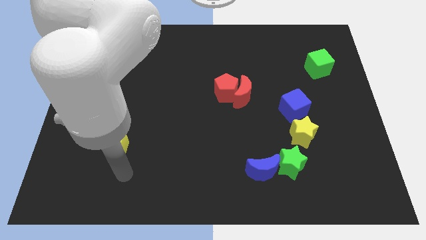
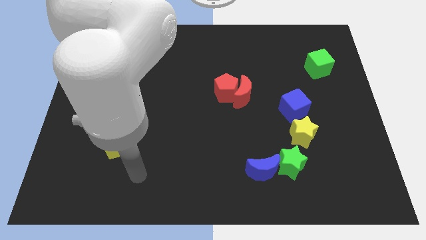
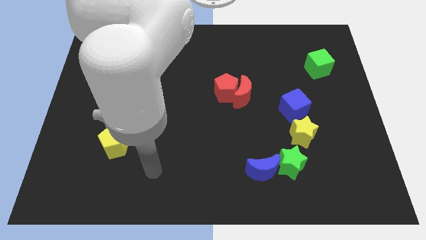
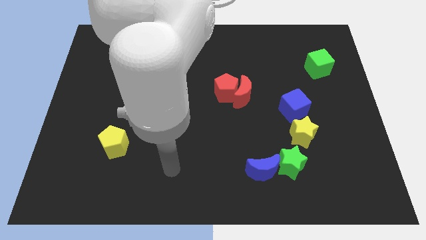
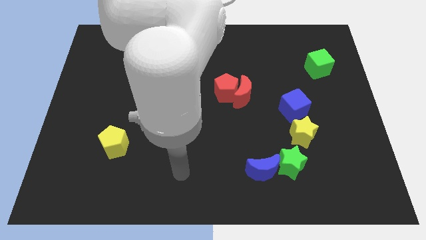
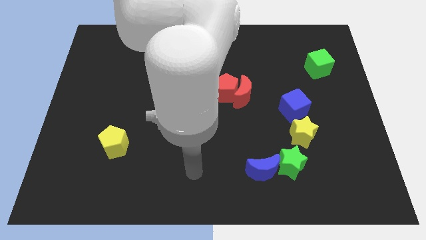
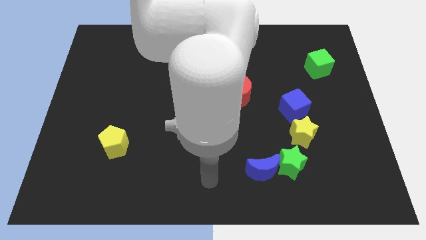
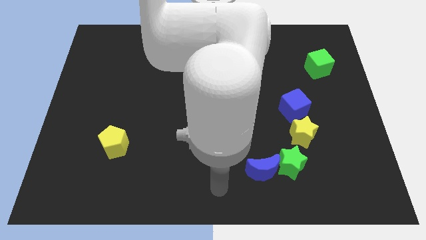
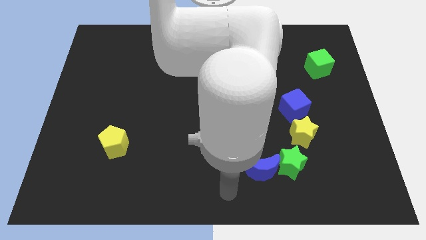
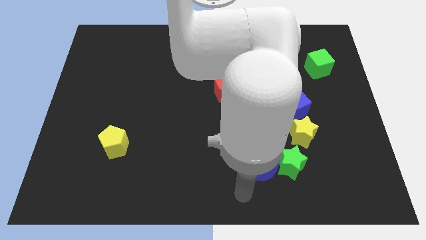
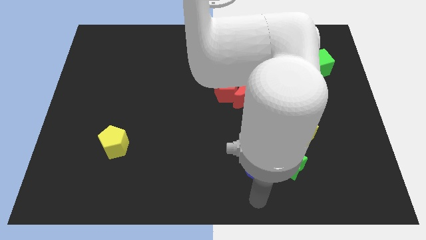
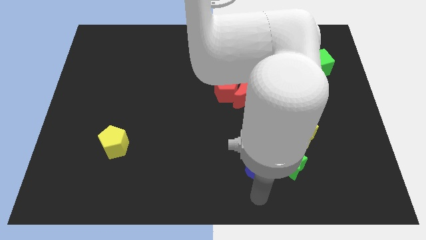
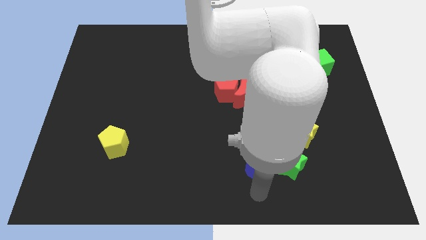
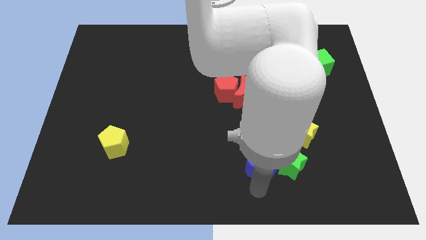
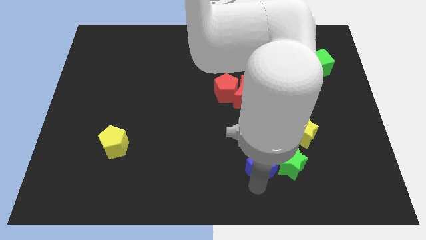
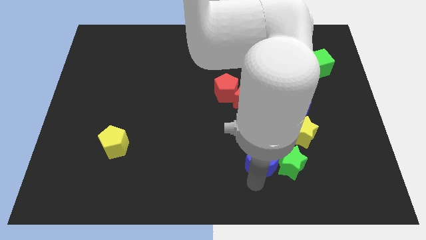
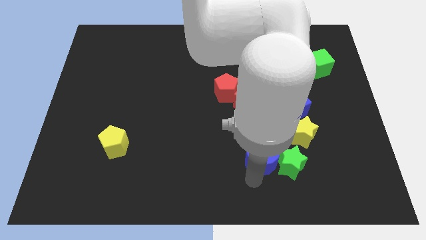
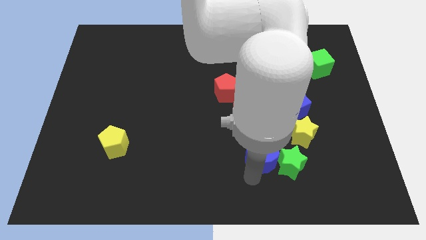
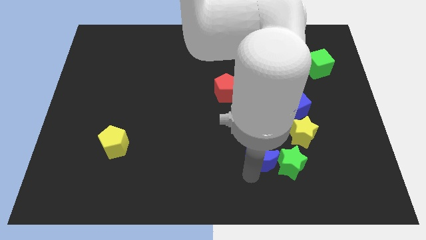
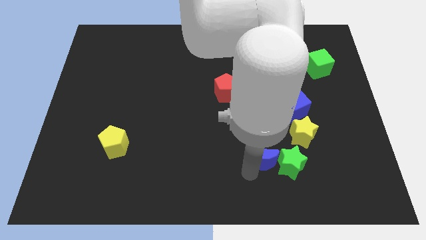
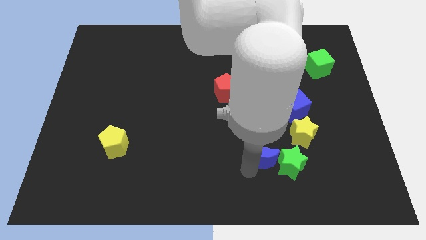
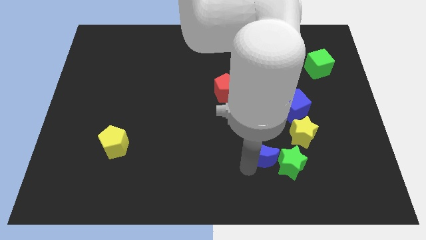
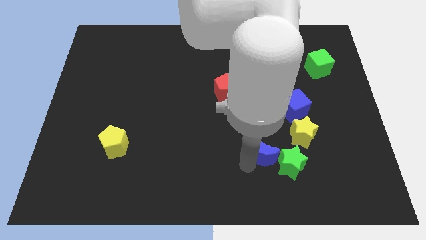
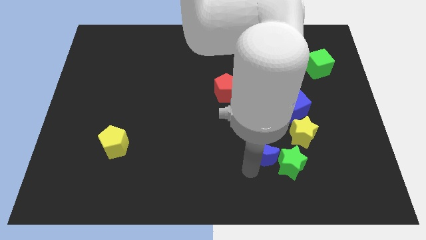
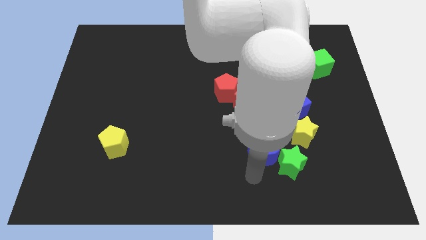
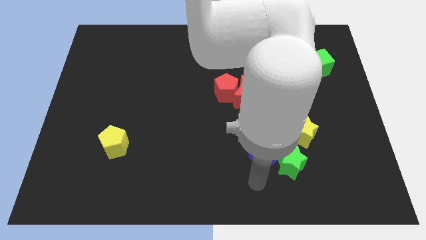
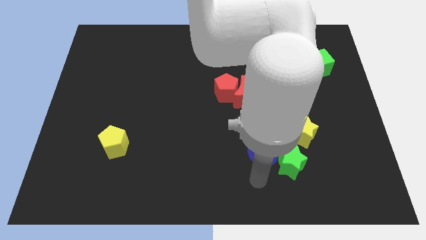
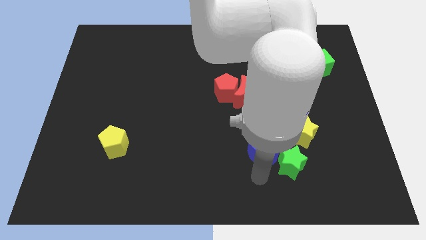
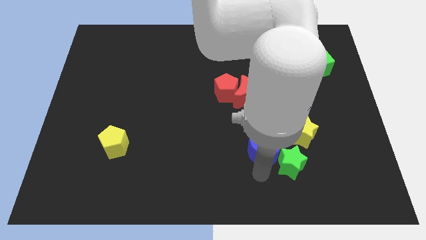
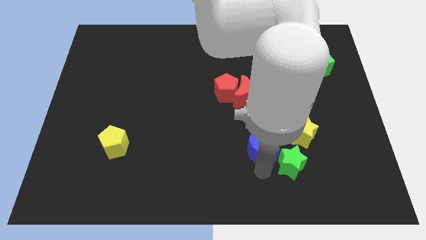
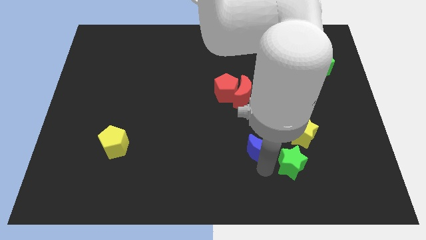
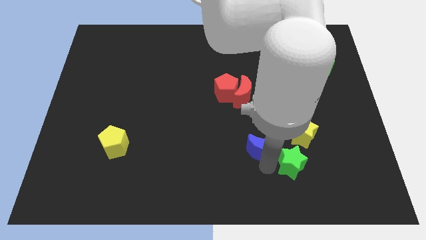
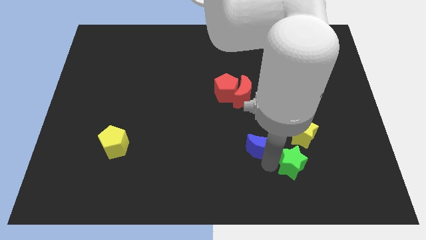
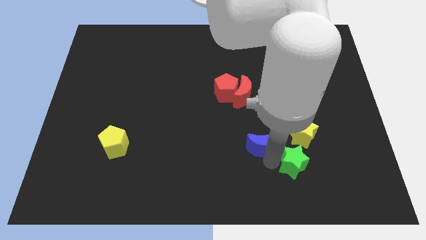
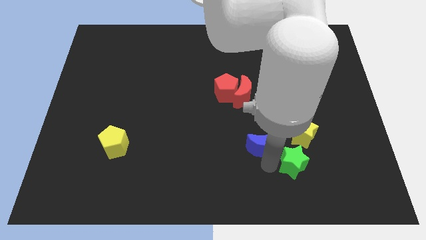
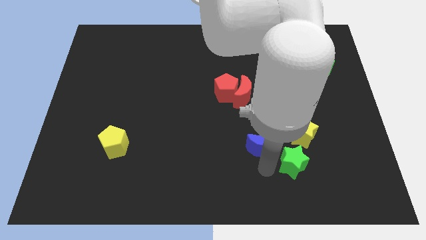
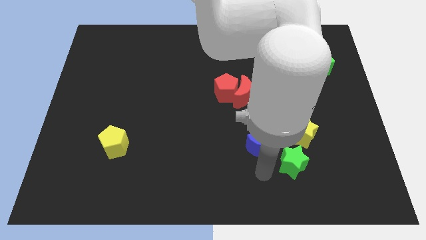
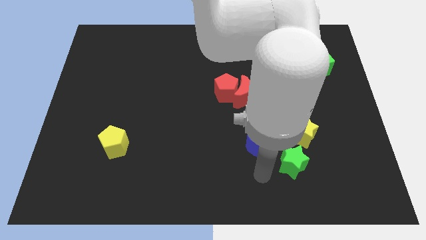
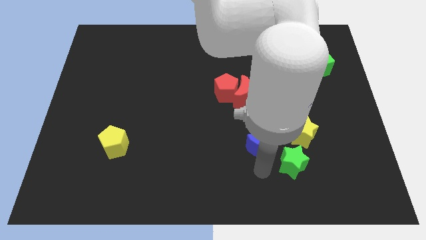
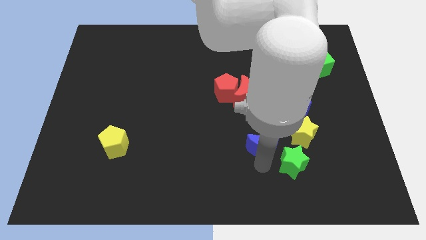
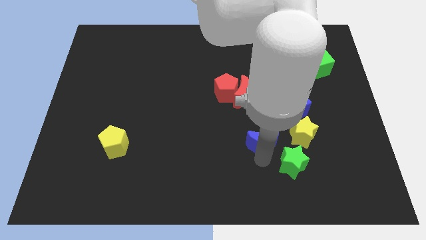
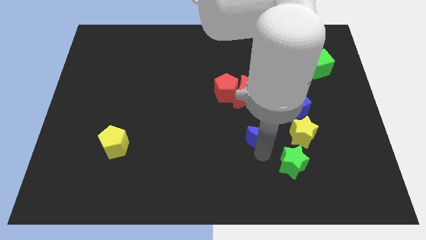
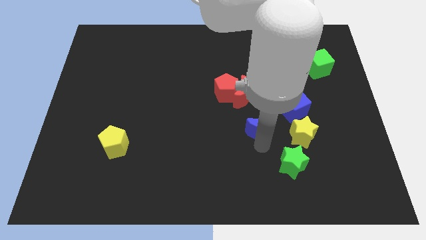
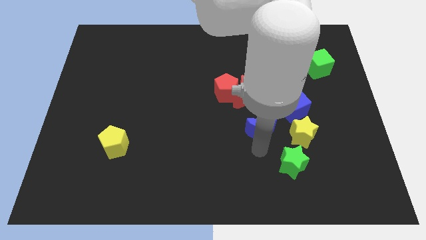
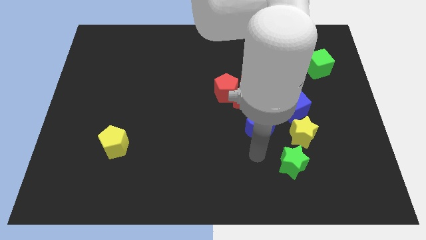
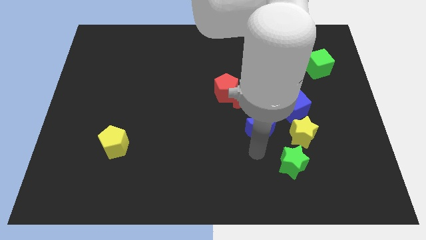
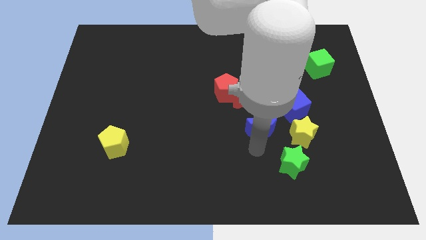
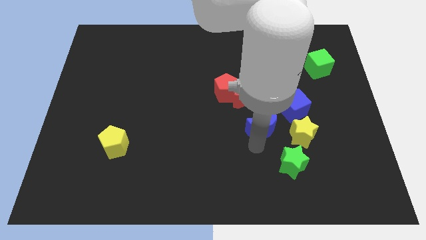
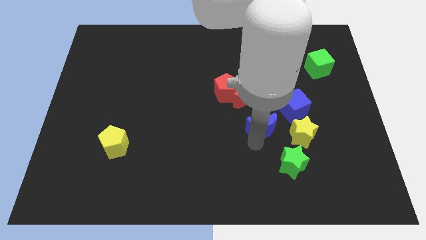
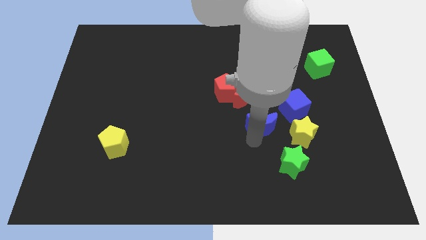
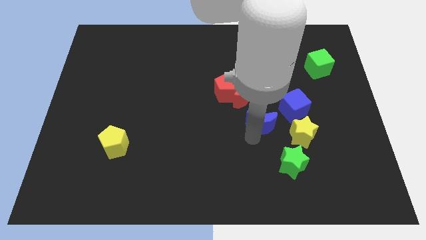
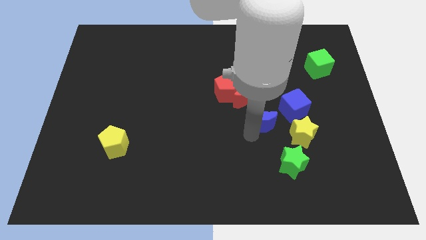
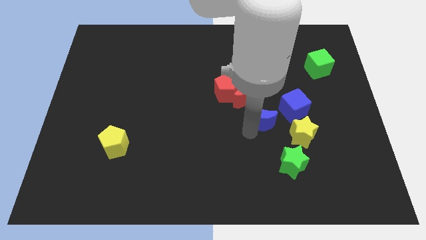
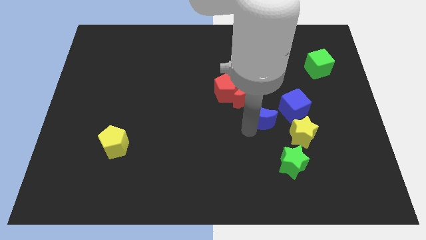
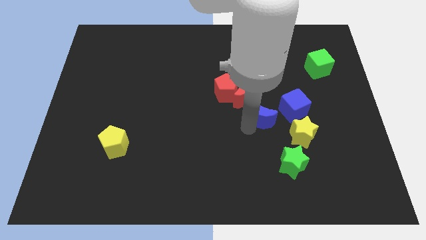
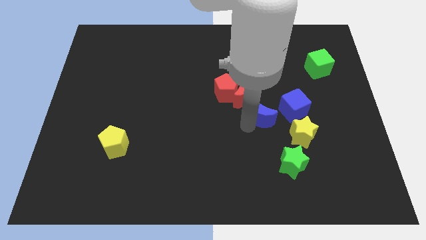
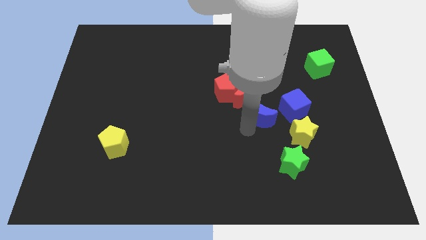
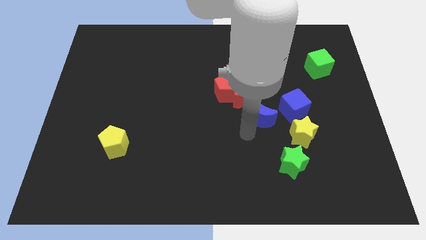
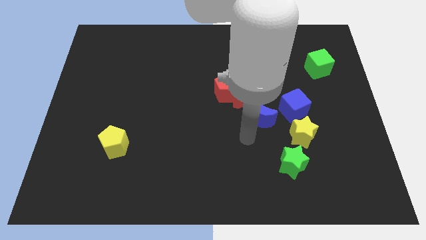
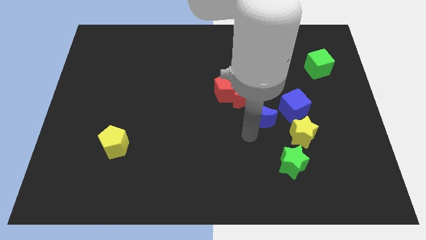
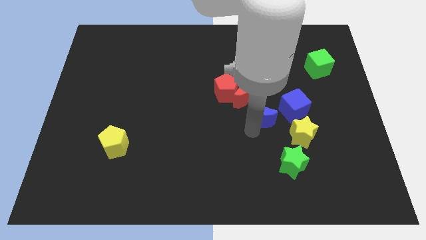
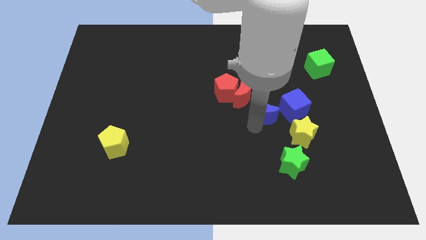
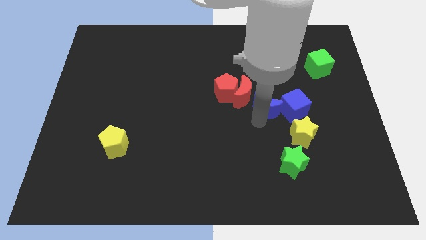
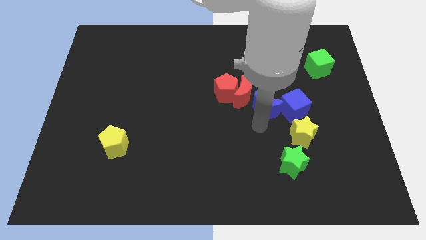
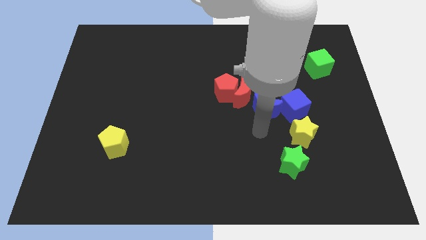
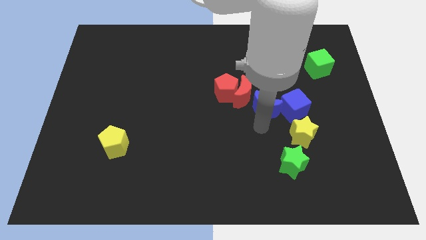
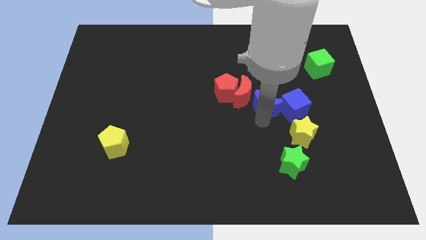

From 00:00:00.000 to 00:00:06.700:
move the blue moon to the right of the red pentagon

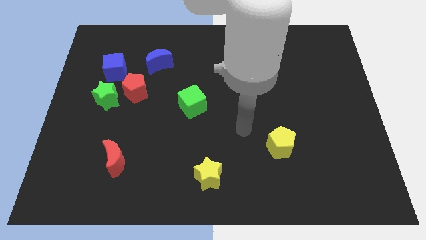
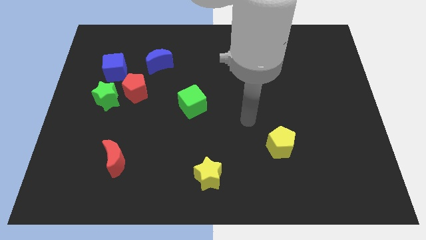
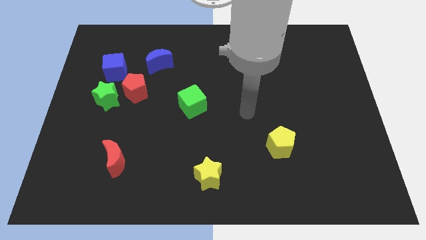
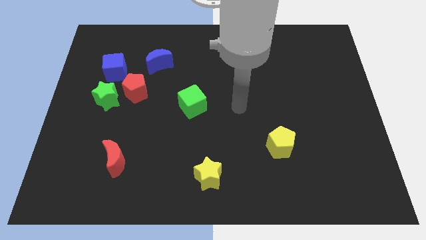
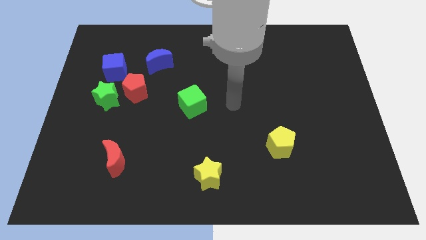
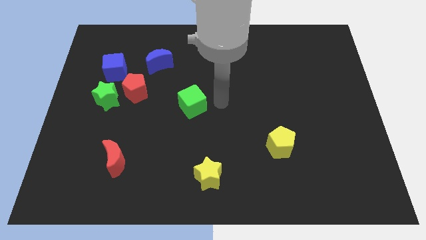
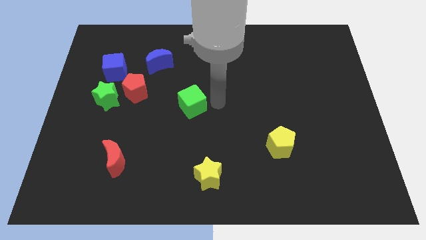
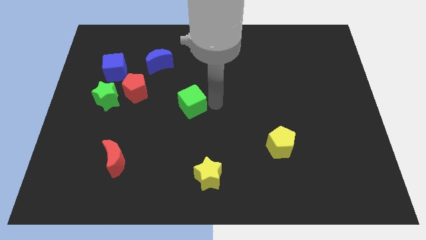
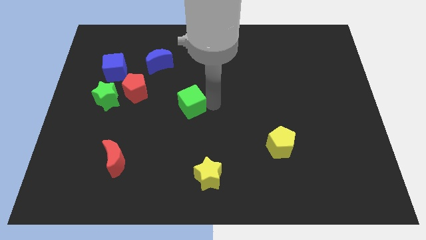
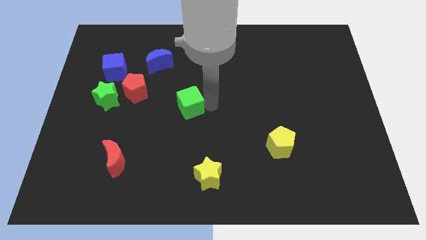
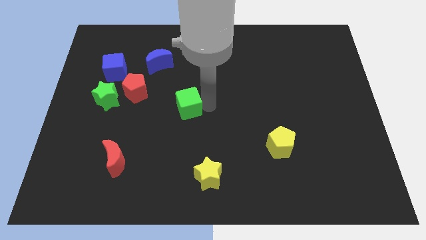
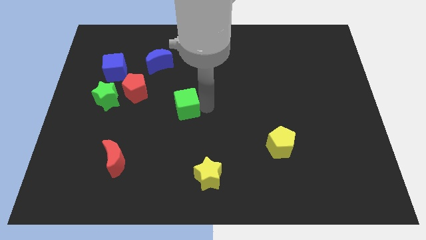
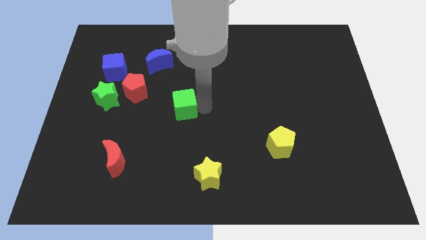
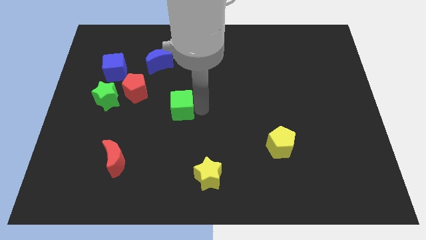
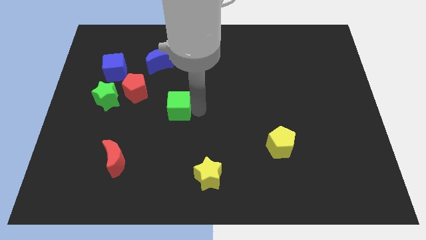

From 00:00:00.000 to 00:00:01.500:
put the green cube to the bottom right of the red pentagon
